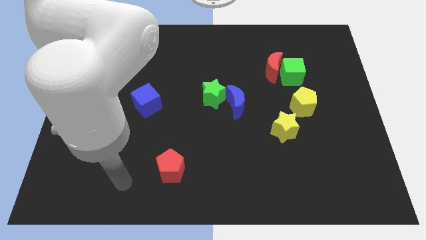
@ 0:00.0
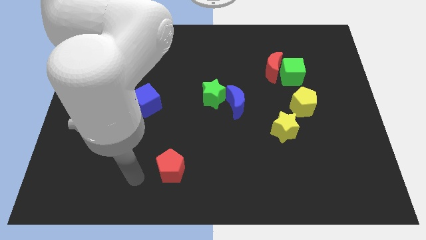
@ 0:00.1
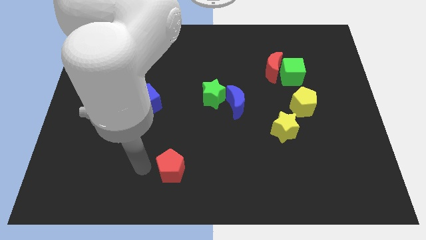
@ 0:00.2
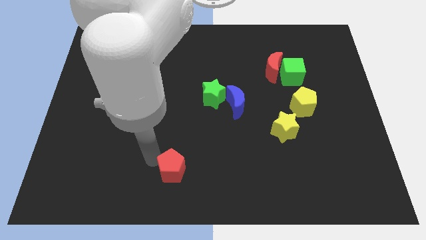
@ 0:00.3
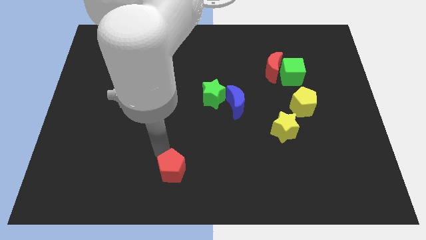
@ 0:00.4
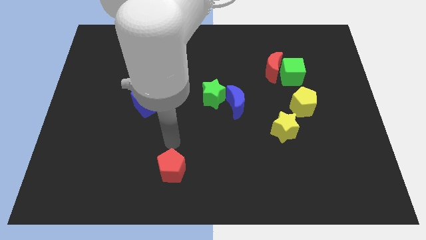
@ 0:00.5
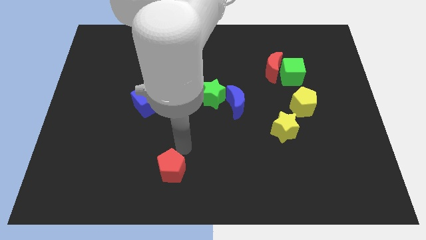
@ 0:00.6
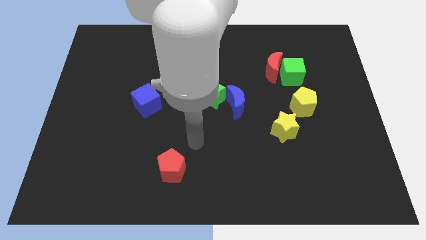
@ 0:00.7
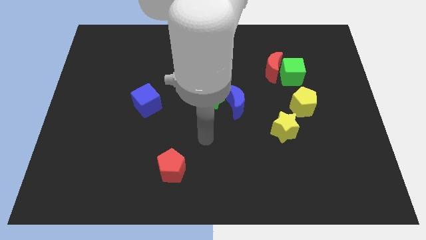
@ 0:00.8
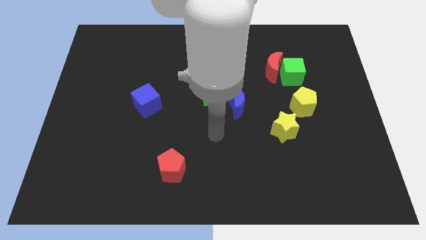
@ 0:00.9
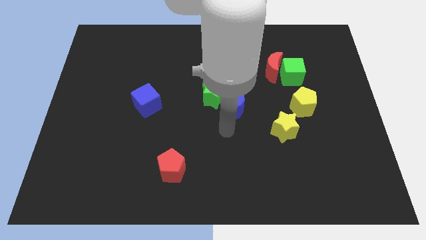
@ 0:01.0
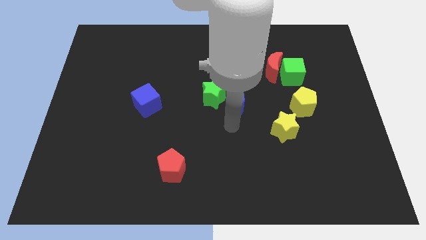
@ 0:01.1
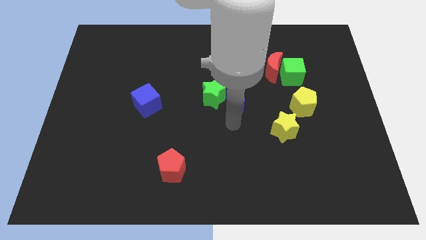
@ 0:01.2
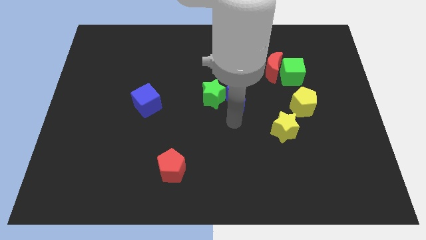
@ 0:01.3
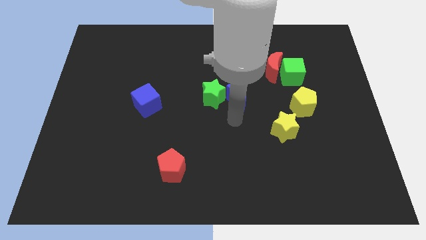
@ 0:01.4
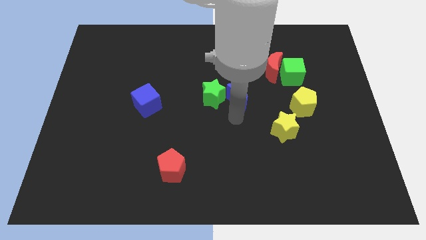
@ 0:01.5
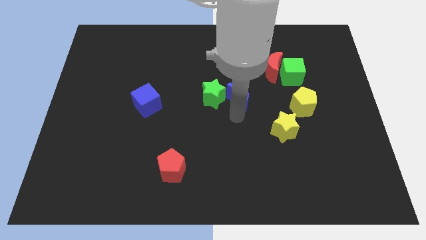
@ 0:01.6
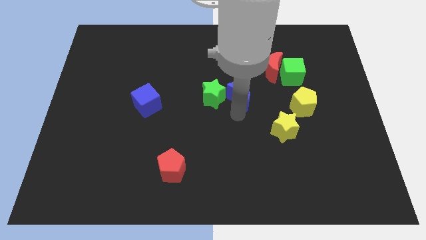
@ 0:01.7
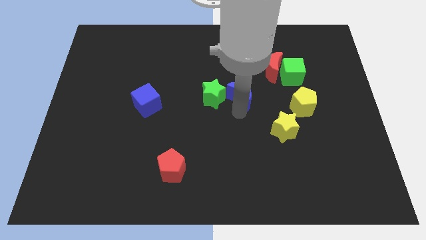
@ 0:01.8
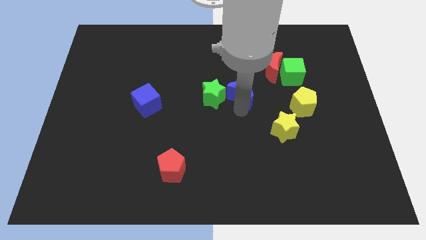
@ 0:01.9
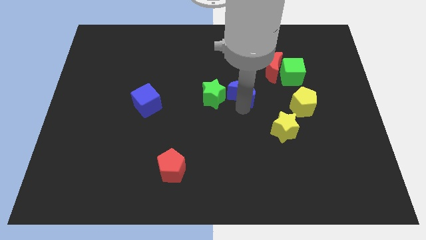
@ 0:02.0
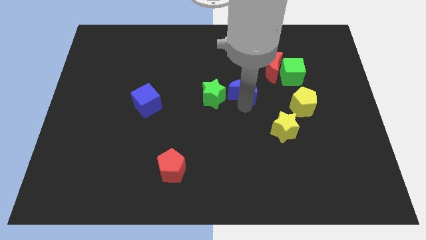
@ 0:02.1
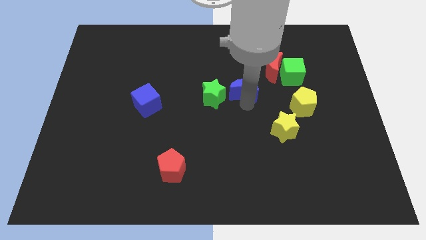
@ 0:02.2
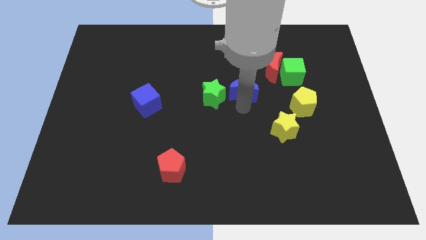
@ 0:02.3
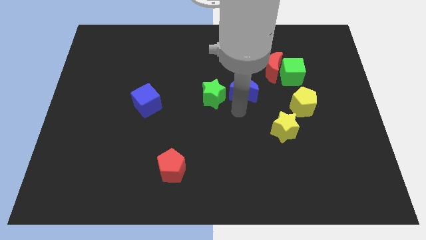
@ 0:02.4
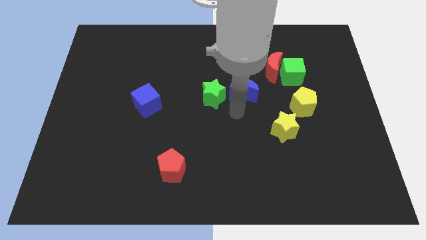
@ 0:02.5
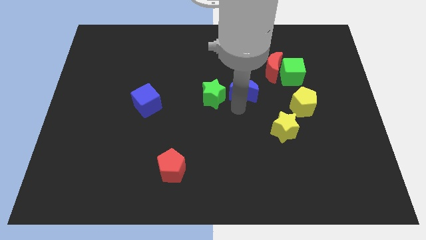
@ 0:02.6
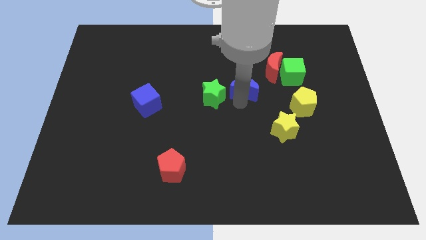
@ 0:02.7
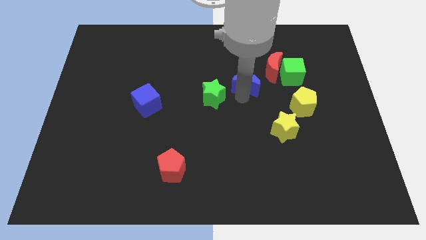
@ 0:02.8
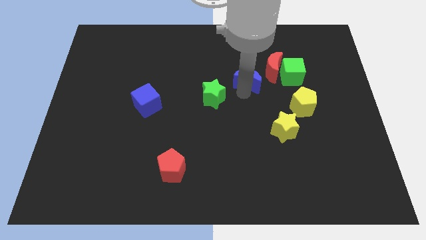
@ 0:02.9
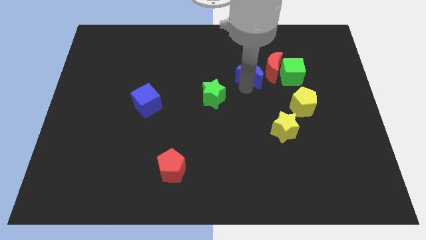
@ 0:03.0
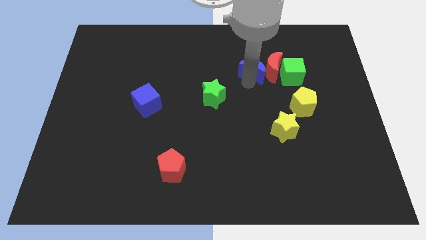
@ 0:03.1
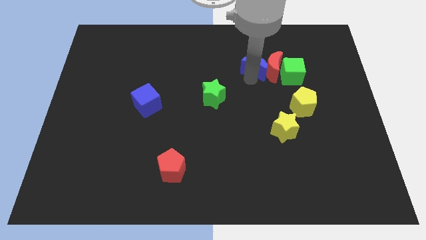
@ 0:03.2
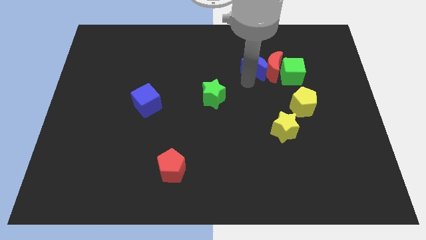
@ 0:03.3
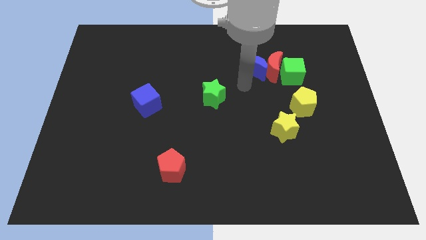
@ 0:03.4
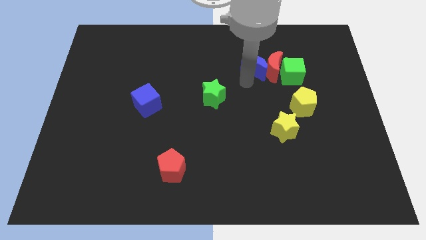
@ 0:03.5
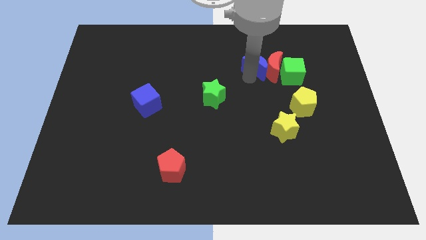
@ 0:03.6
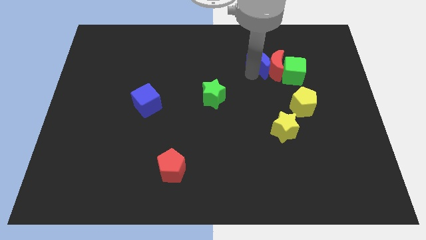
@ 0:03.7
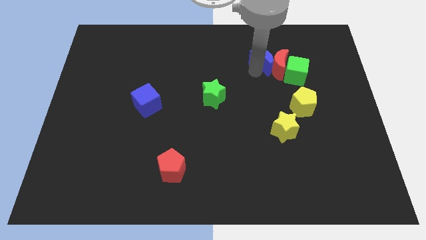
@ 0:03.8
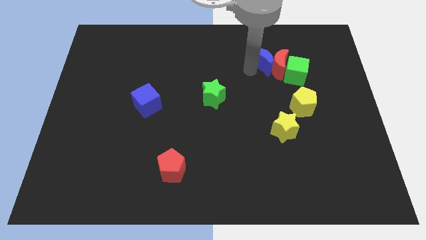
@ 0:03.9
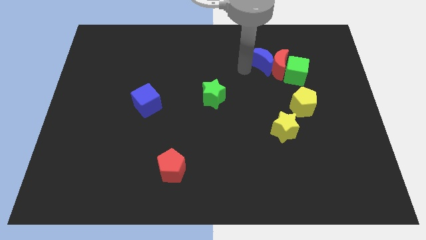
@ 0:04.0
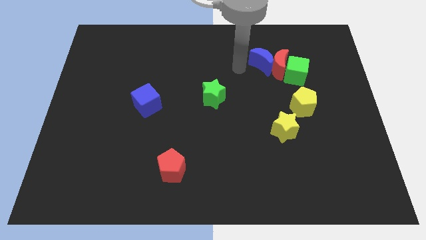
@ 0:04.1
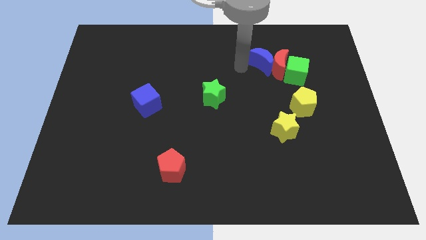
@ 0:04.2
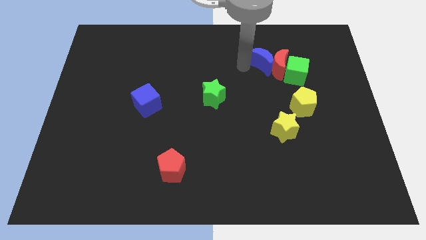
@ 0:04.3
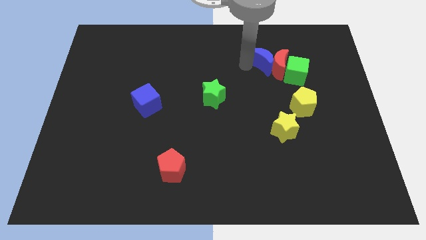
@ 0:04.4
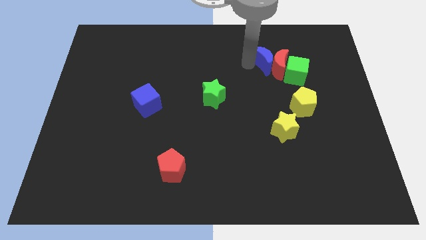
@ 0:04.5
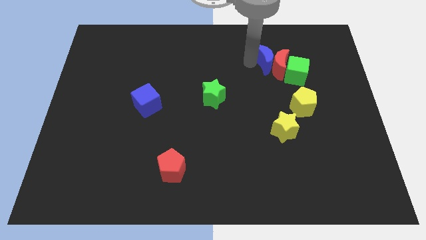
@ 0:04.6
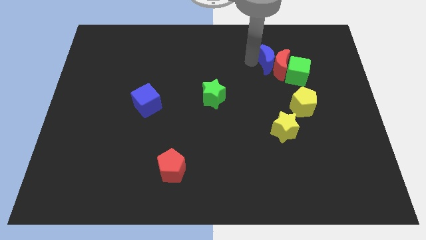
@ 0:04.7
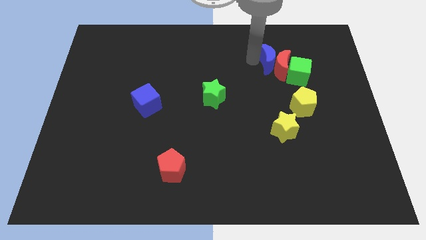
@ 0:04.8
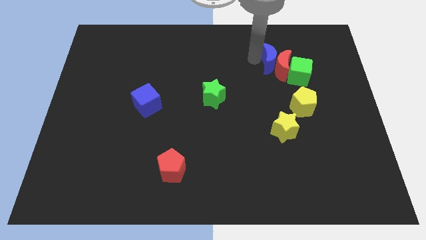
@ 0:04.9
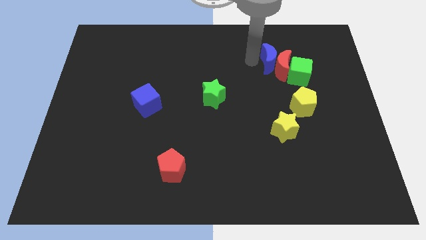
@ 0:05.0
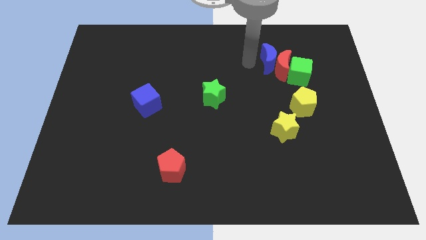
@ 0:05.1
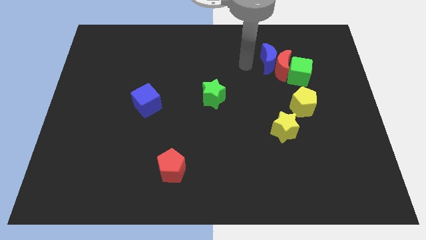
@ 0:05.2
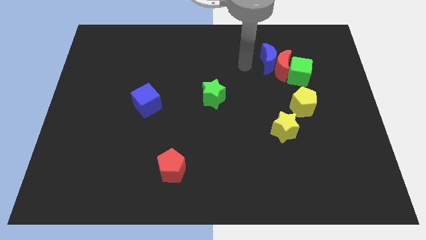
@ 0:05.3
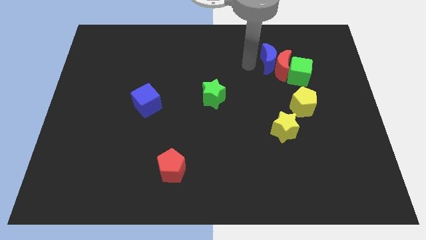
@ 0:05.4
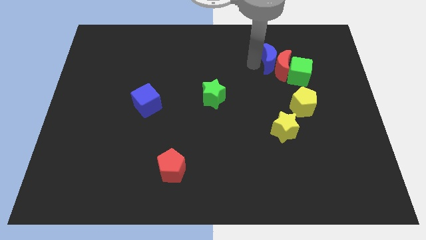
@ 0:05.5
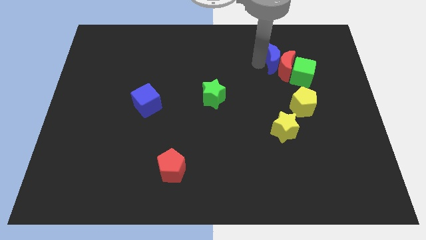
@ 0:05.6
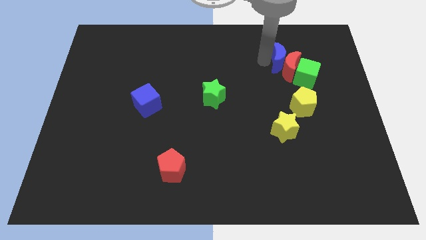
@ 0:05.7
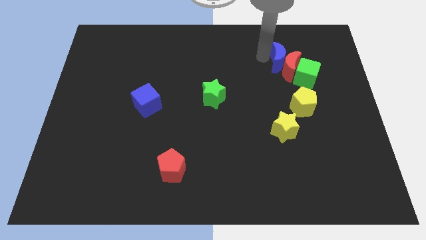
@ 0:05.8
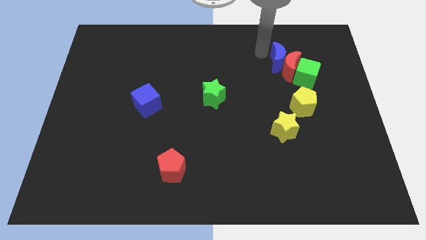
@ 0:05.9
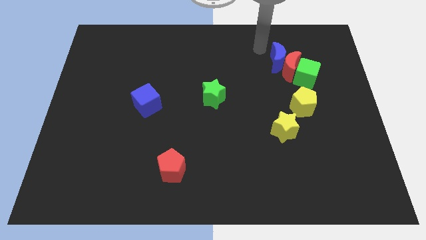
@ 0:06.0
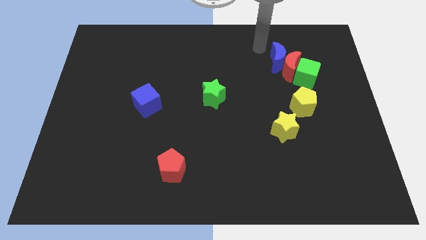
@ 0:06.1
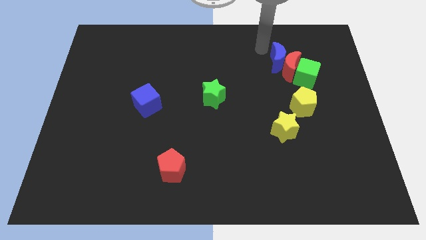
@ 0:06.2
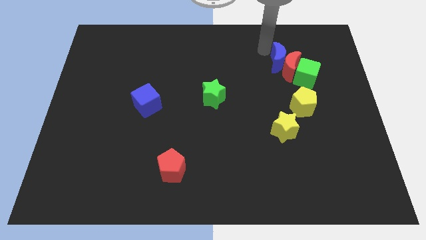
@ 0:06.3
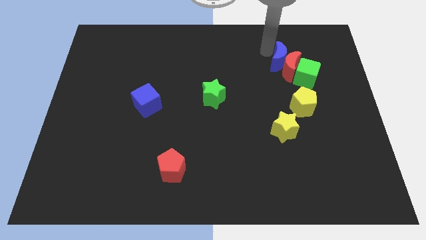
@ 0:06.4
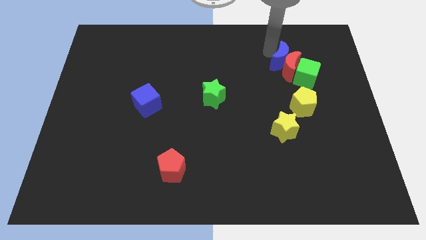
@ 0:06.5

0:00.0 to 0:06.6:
put the blue moon above the yellow pentagon
